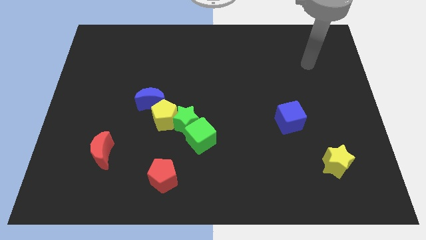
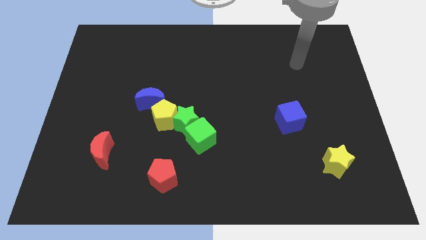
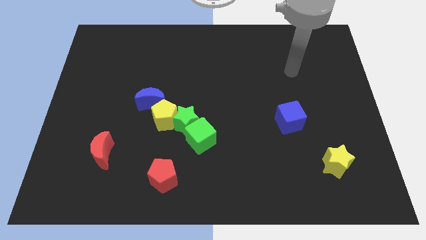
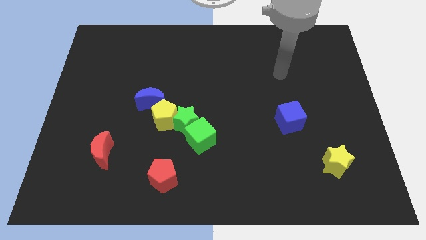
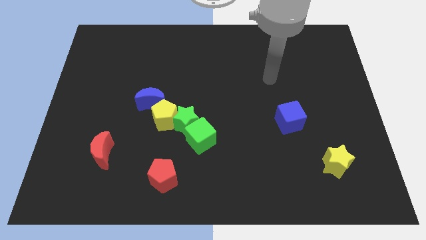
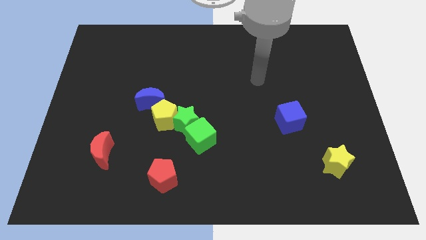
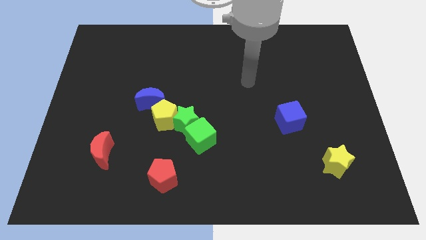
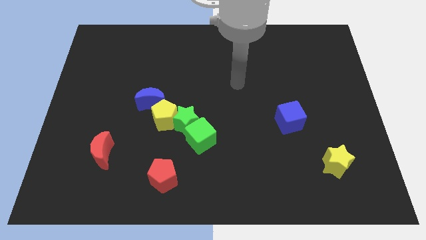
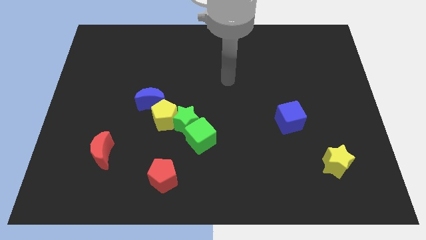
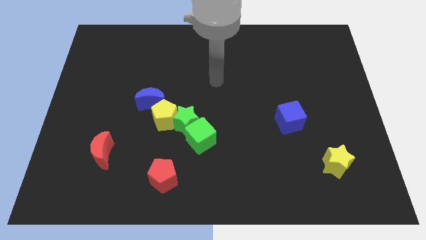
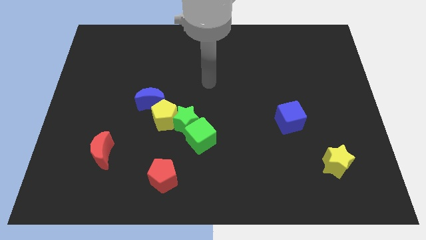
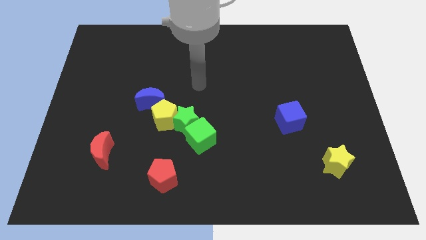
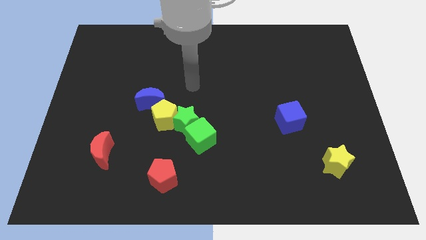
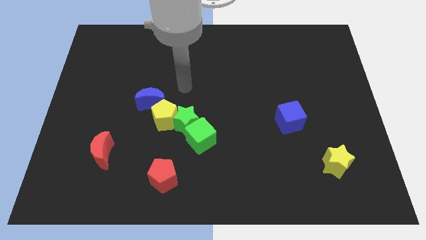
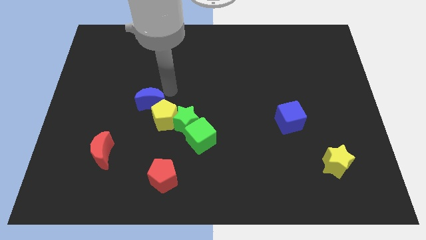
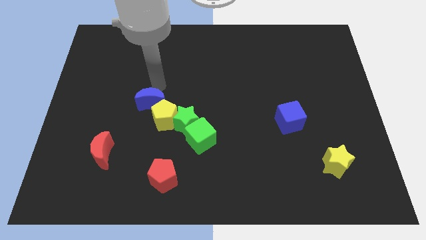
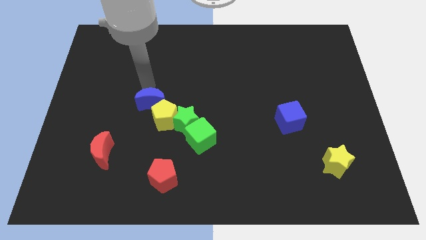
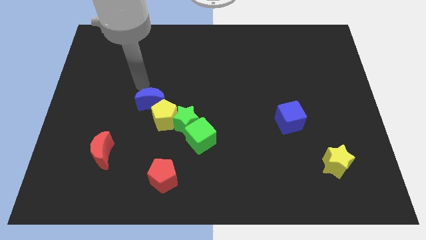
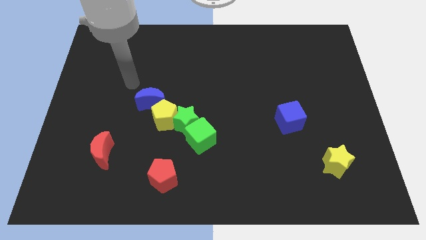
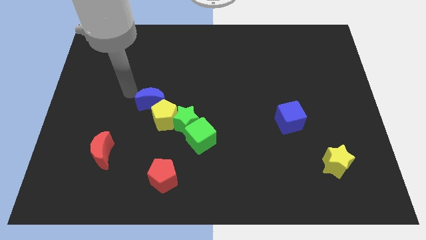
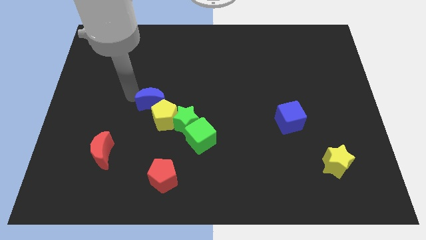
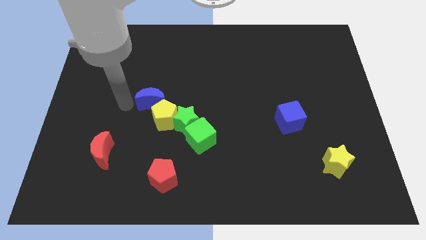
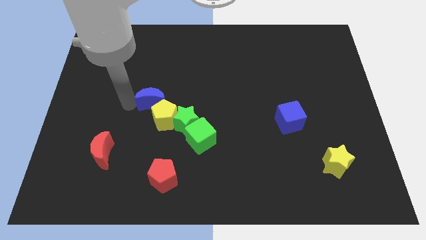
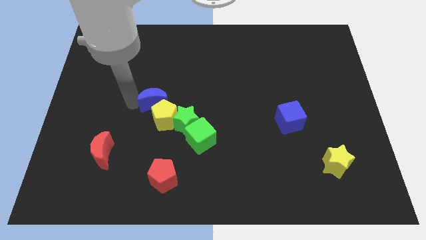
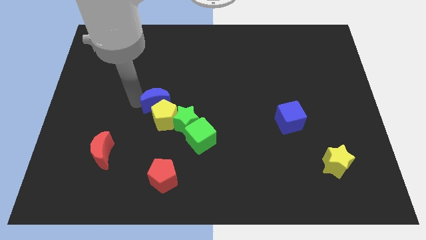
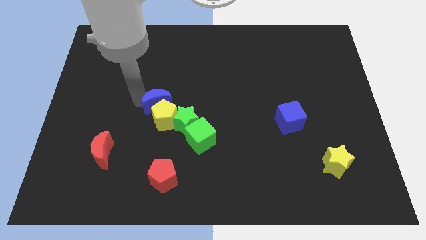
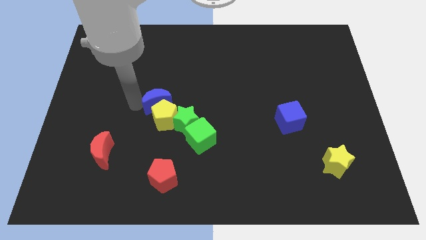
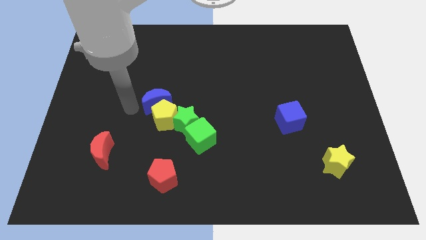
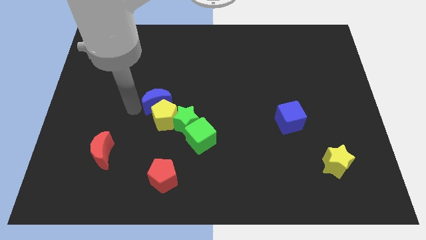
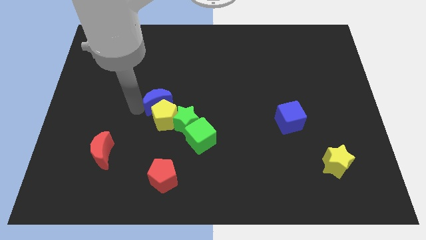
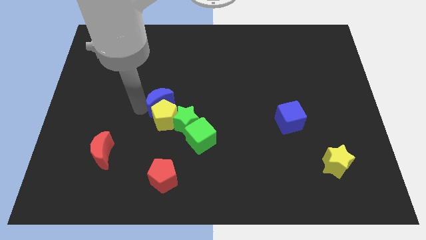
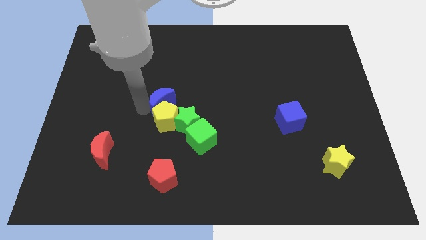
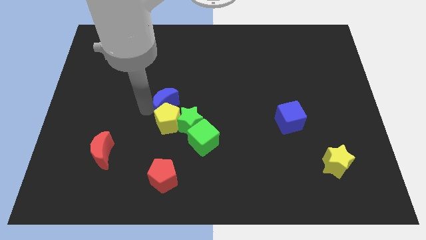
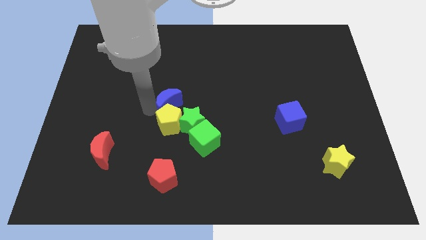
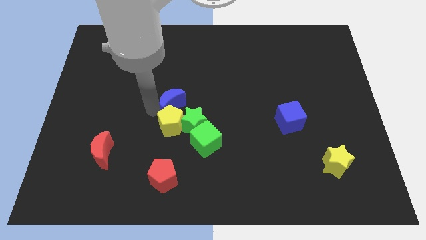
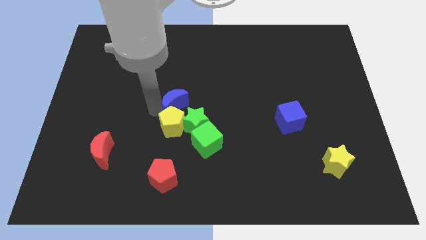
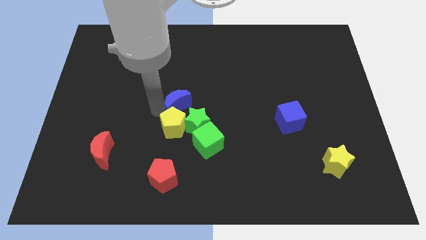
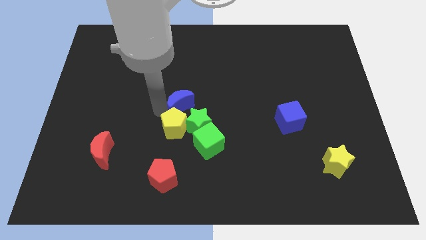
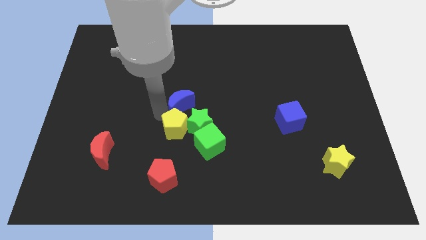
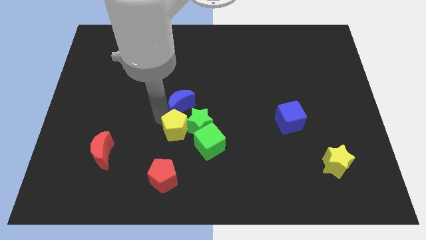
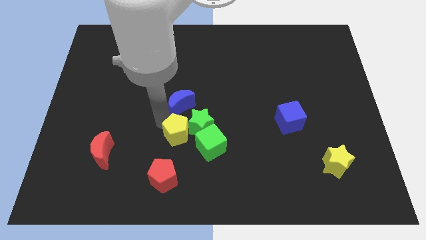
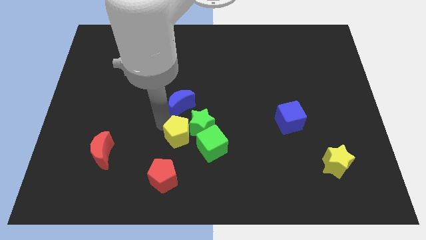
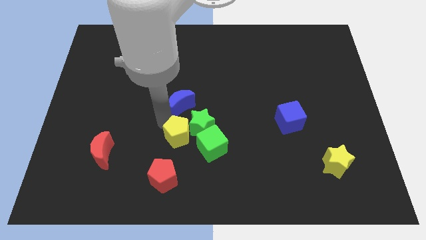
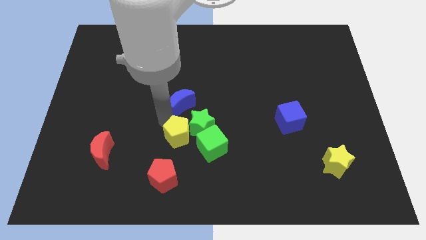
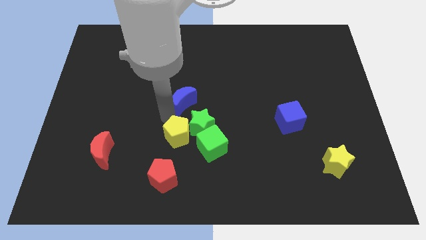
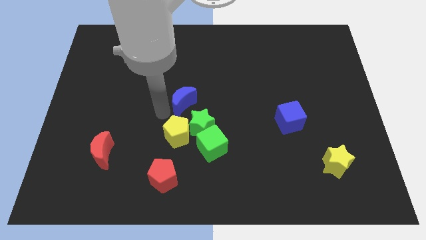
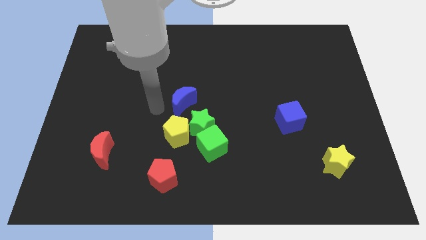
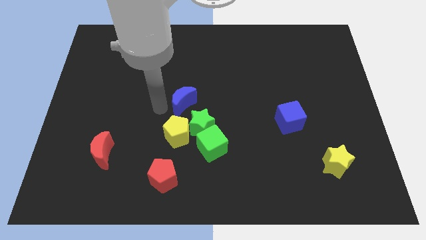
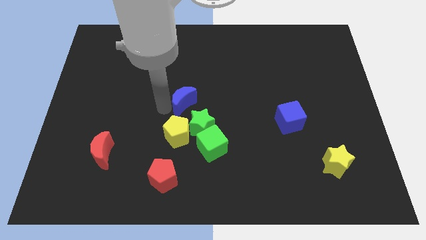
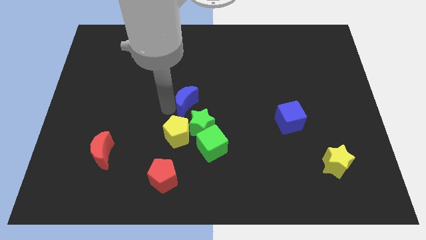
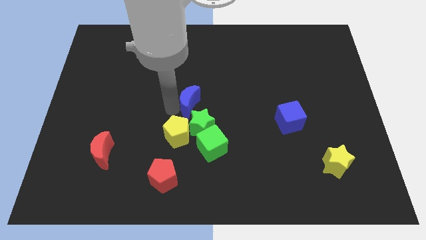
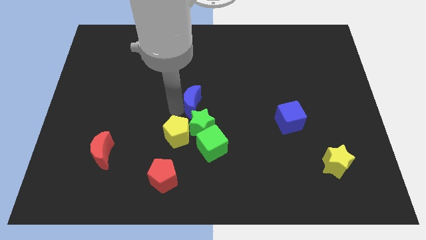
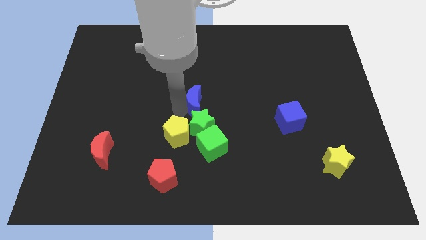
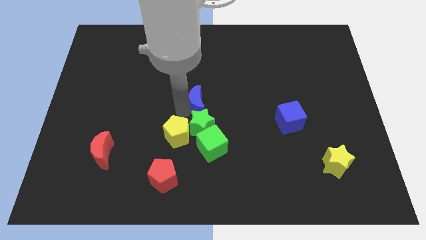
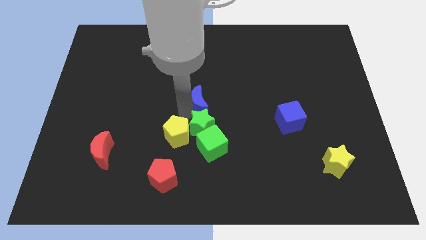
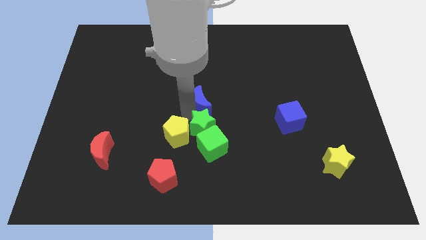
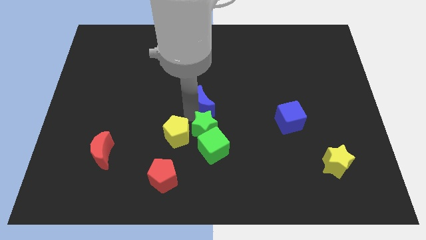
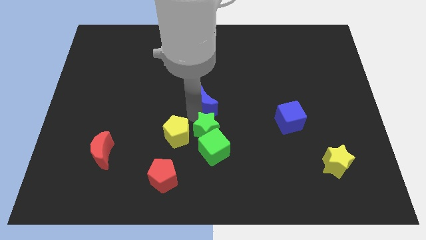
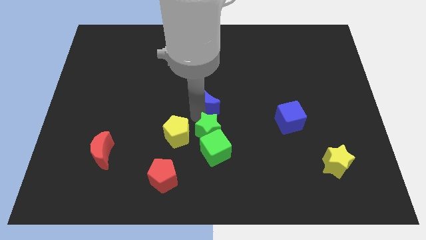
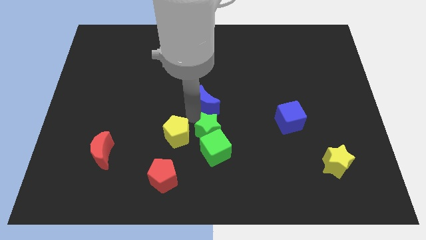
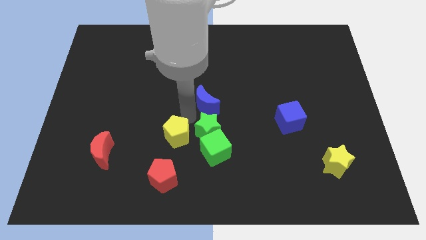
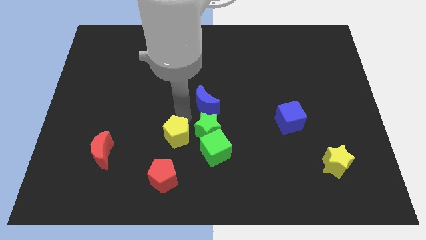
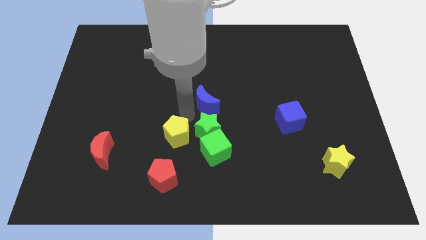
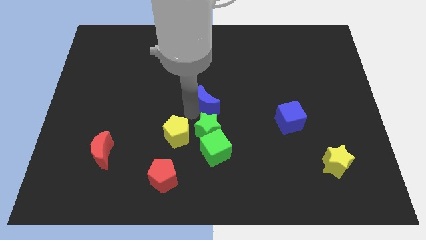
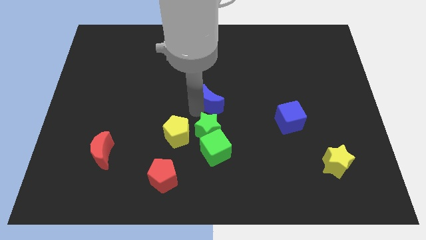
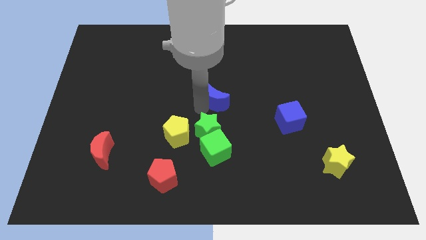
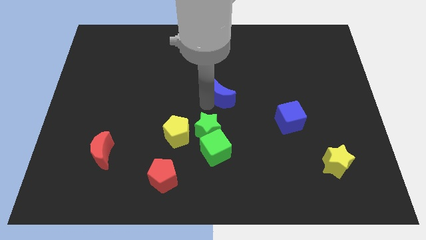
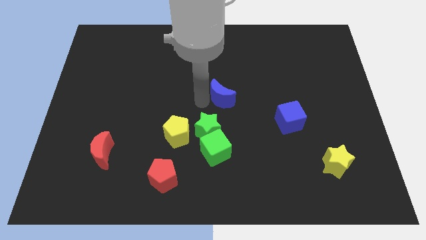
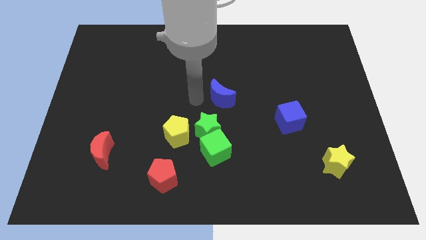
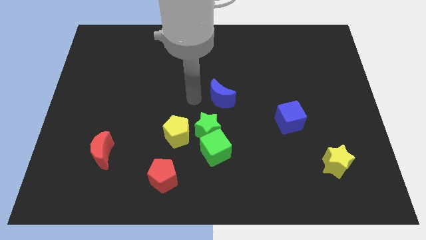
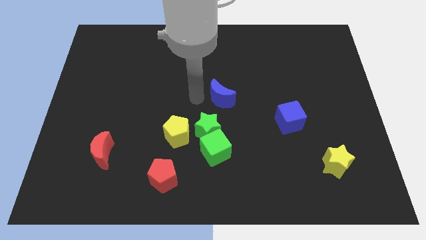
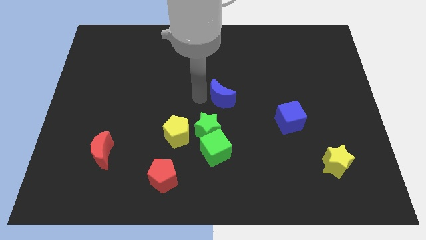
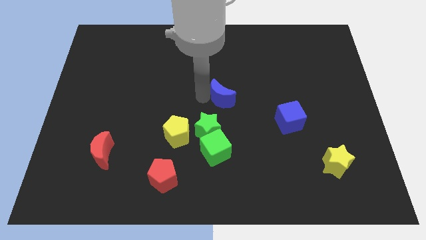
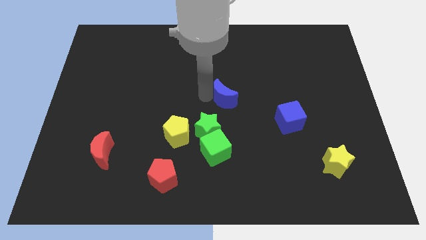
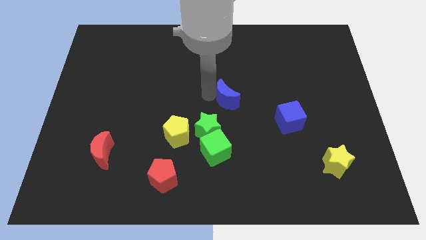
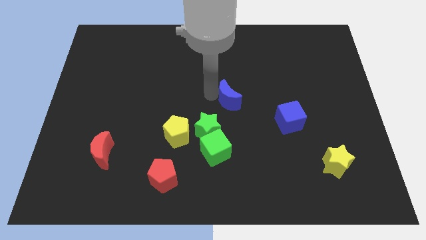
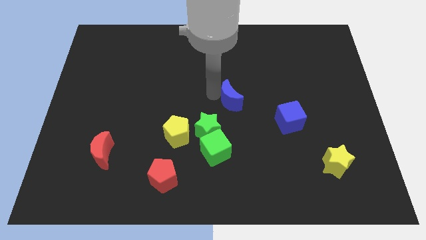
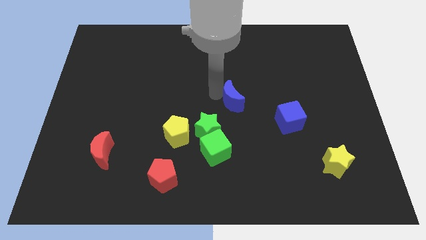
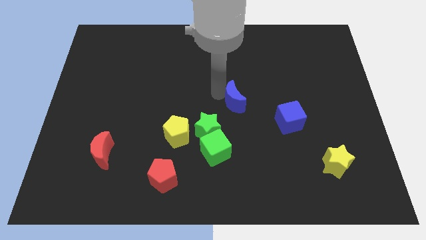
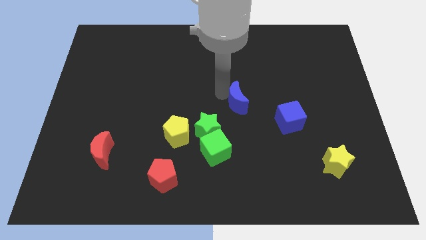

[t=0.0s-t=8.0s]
push the blue moon to the right

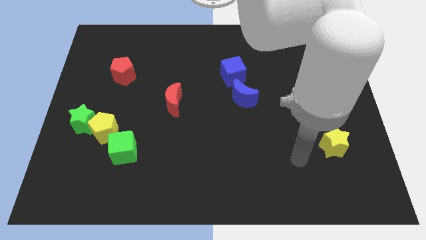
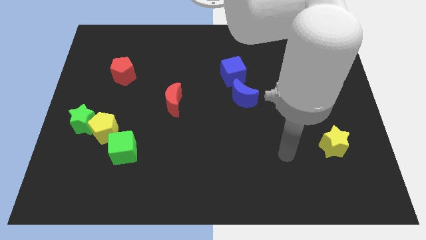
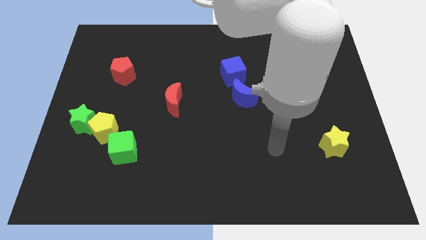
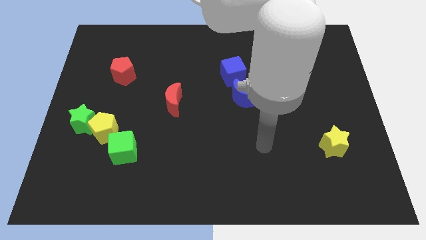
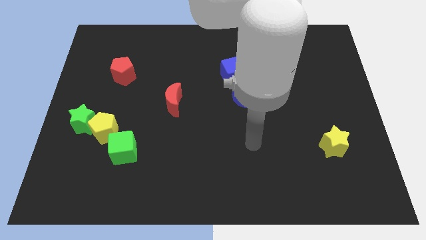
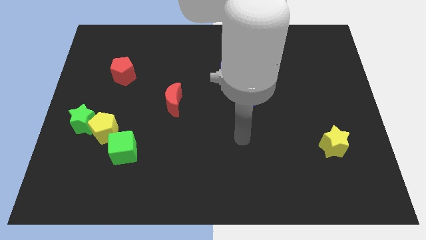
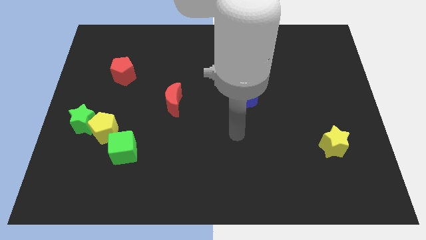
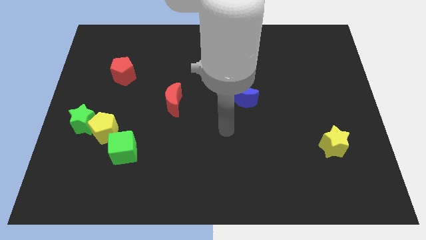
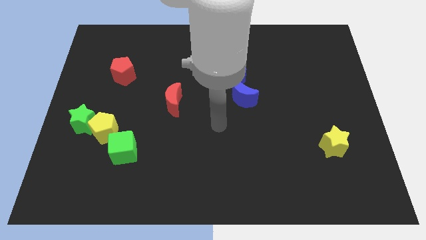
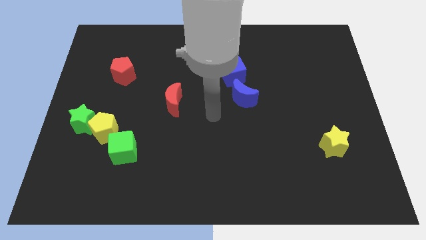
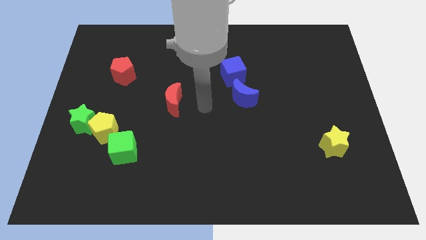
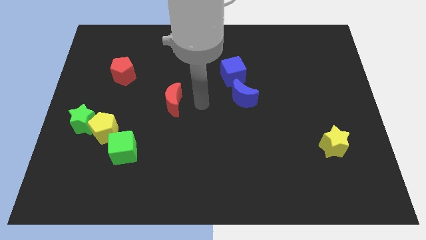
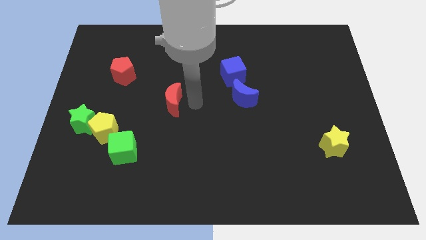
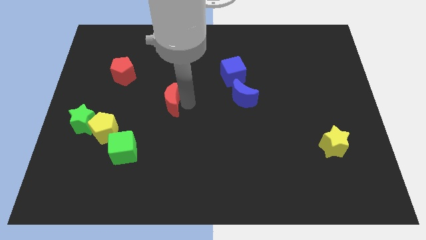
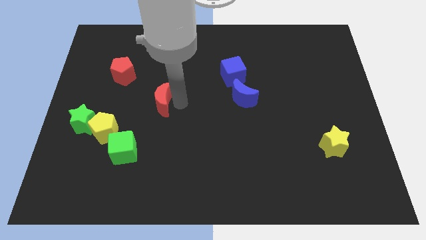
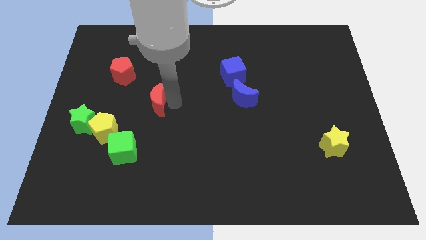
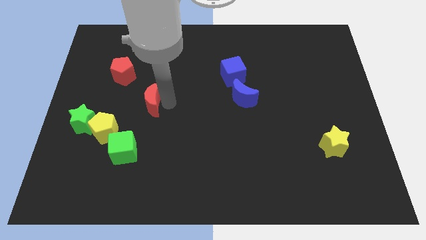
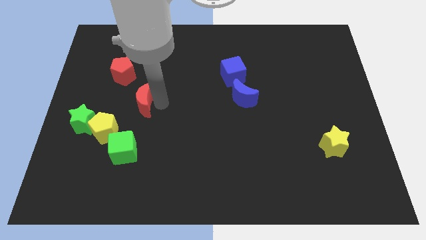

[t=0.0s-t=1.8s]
slide the red moon left a little
